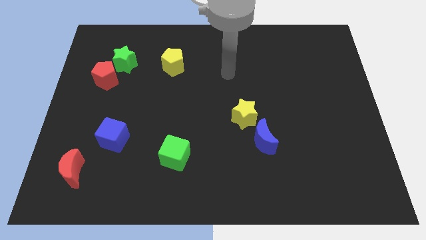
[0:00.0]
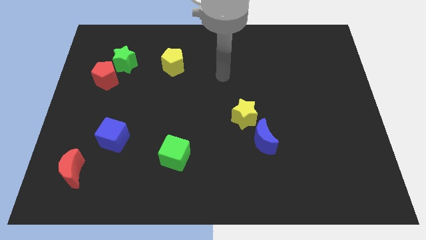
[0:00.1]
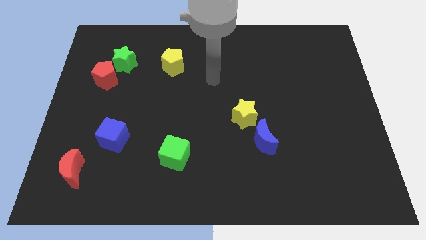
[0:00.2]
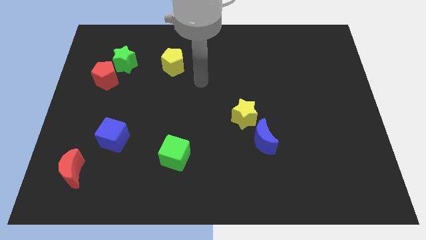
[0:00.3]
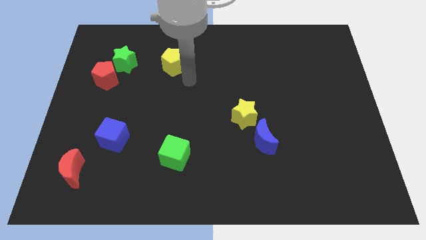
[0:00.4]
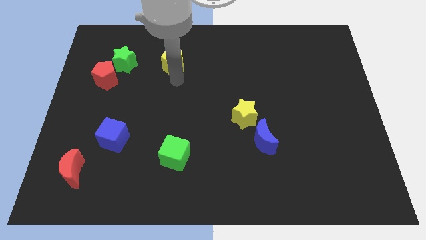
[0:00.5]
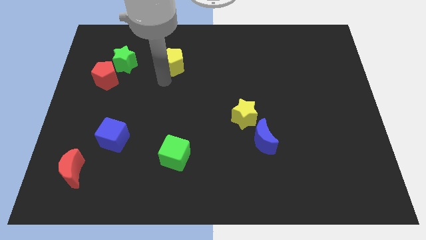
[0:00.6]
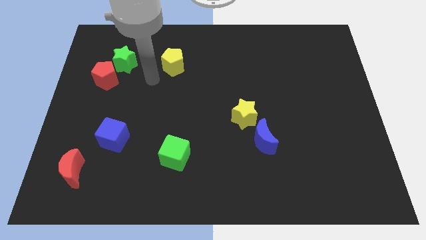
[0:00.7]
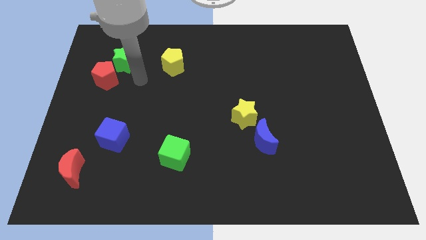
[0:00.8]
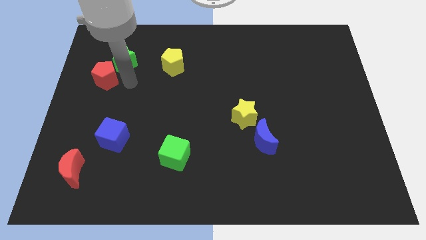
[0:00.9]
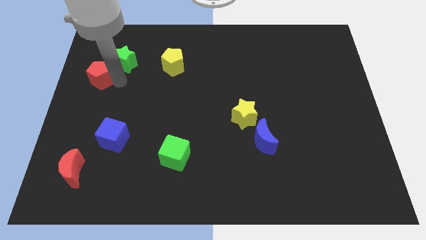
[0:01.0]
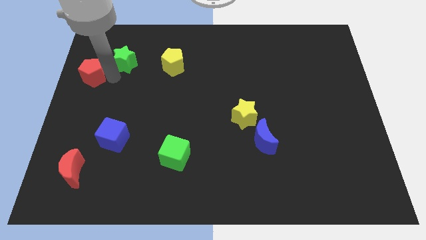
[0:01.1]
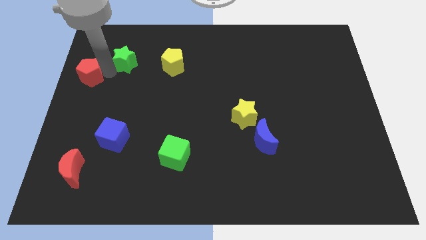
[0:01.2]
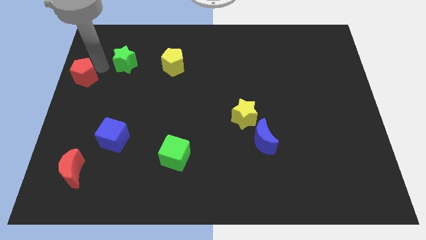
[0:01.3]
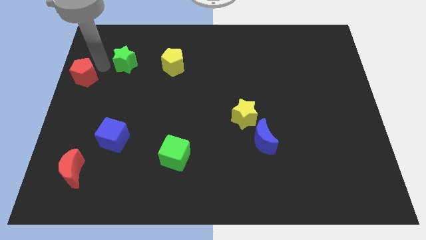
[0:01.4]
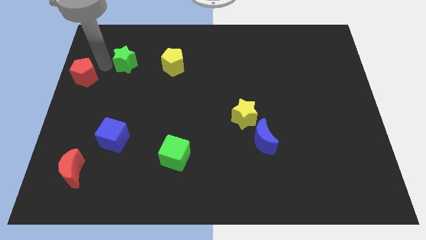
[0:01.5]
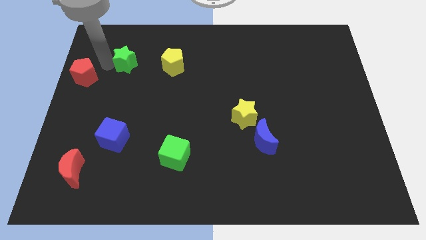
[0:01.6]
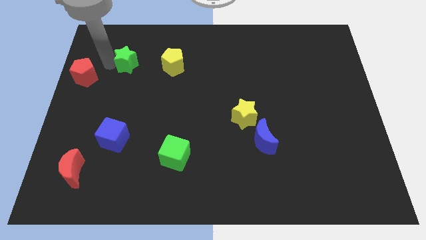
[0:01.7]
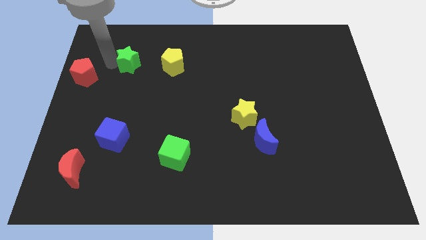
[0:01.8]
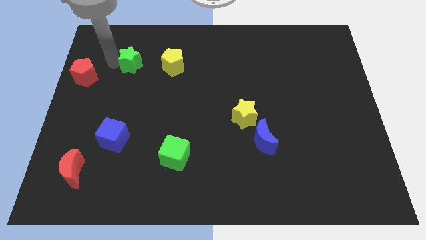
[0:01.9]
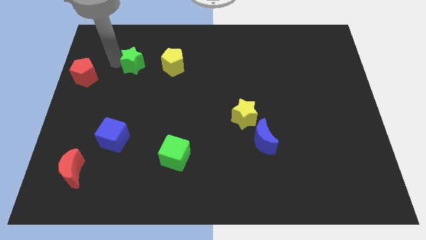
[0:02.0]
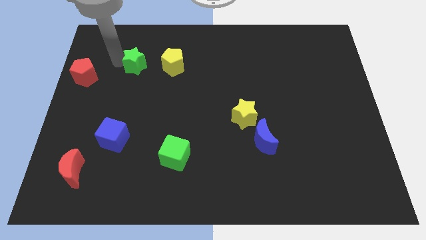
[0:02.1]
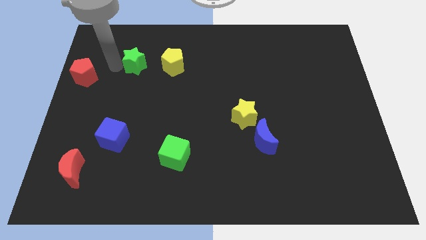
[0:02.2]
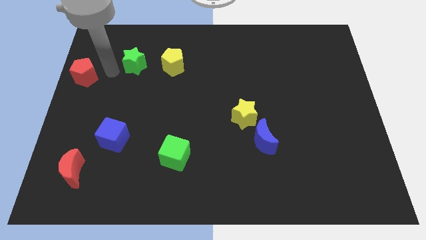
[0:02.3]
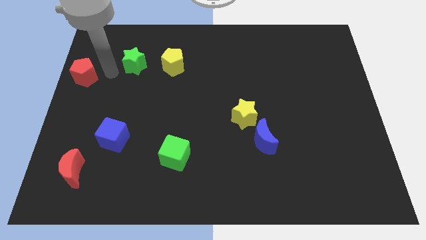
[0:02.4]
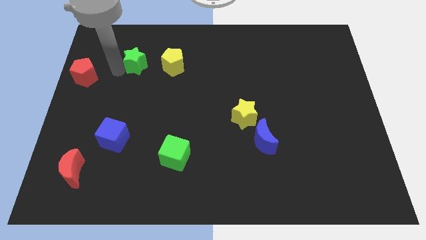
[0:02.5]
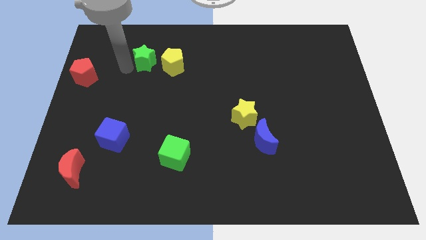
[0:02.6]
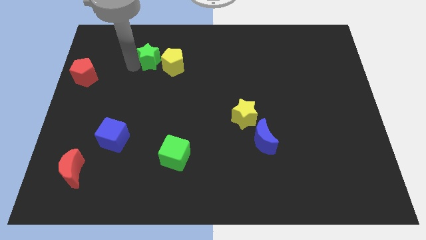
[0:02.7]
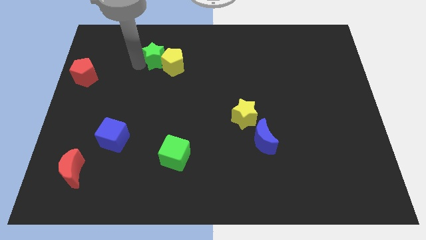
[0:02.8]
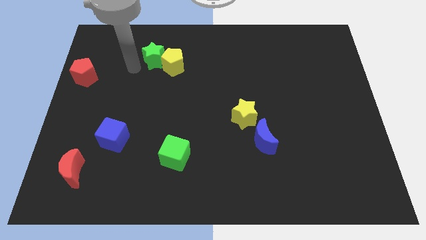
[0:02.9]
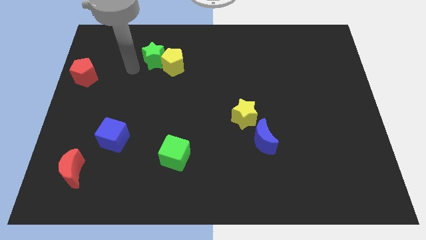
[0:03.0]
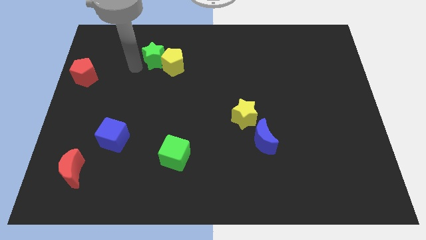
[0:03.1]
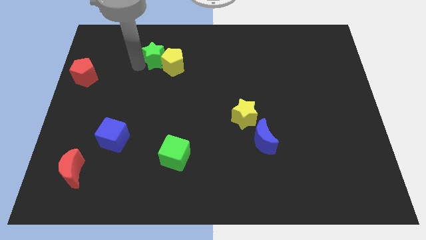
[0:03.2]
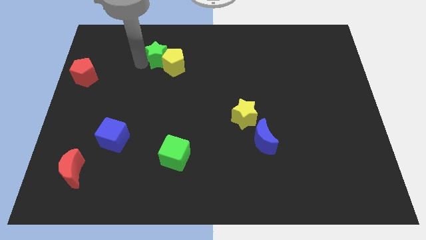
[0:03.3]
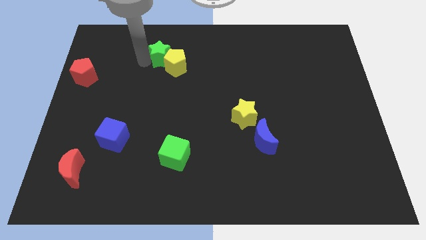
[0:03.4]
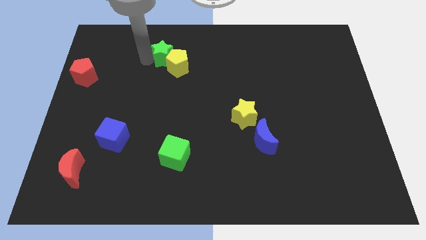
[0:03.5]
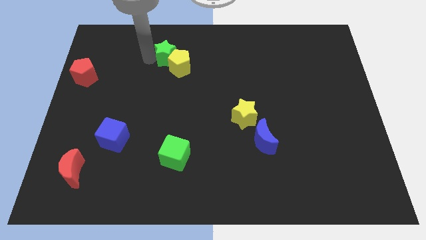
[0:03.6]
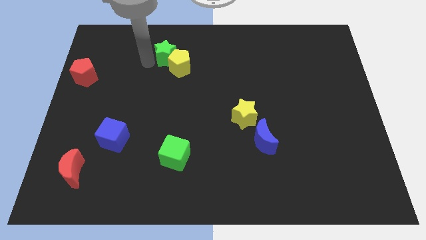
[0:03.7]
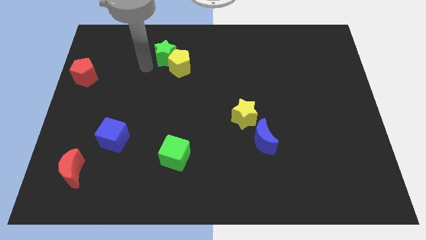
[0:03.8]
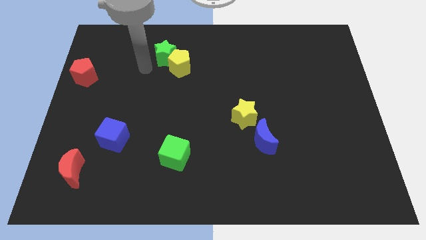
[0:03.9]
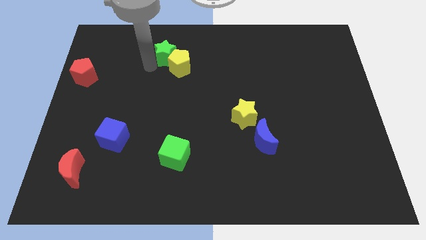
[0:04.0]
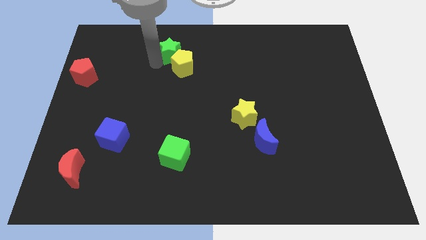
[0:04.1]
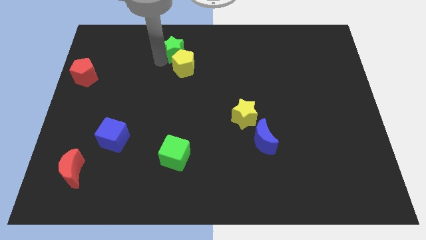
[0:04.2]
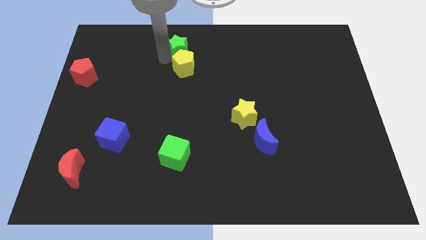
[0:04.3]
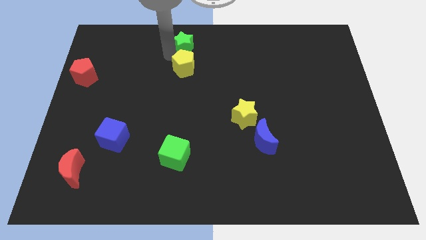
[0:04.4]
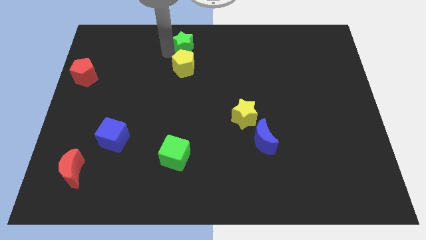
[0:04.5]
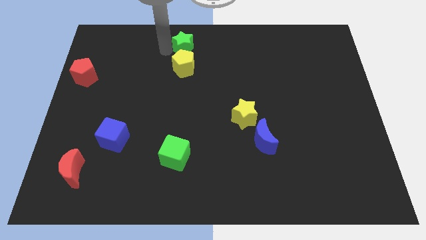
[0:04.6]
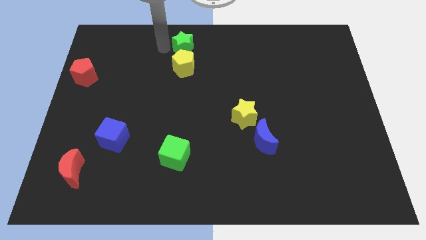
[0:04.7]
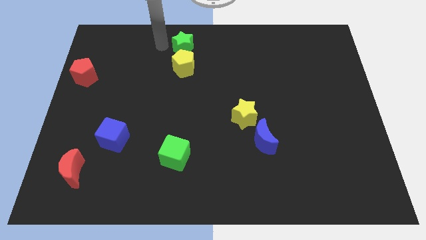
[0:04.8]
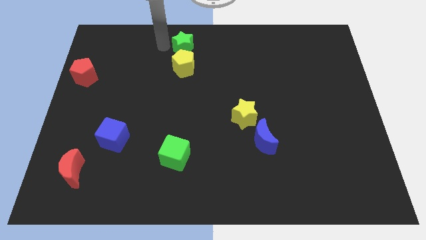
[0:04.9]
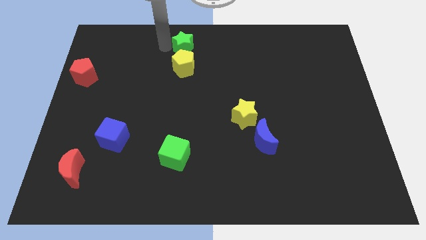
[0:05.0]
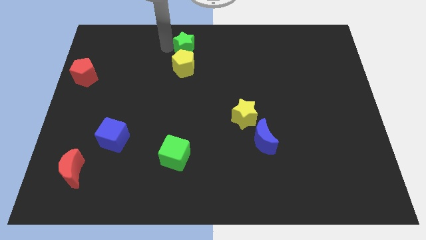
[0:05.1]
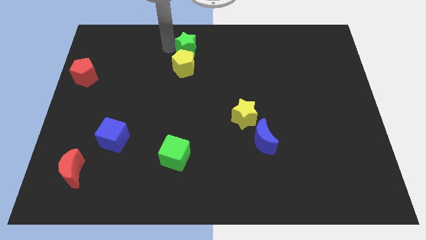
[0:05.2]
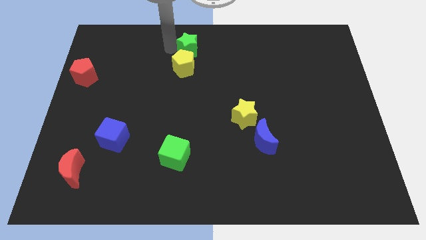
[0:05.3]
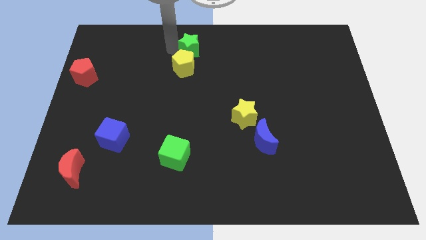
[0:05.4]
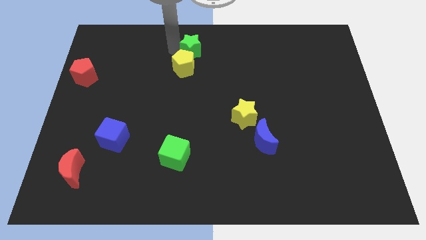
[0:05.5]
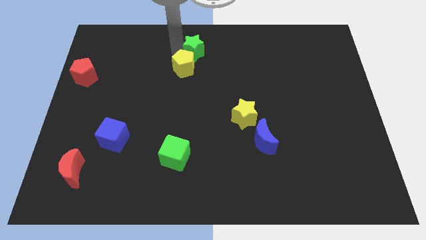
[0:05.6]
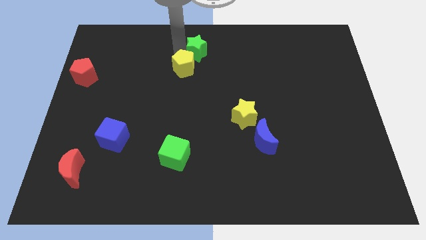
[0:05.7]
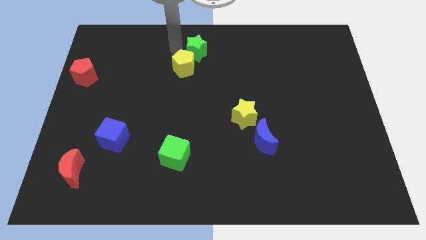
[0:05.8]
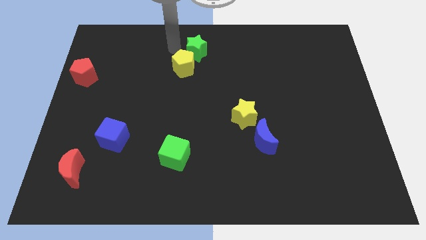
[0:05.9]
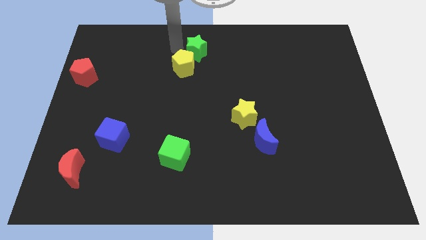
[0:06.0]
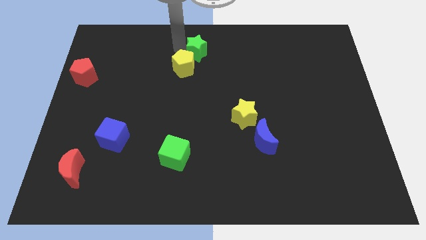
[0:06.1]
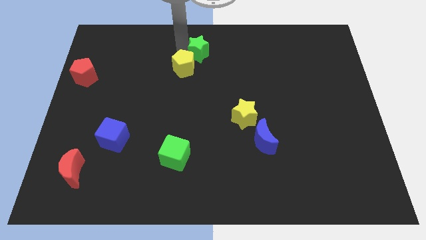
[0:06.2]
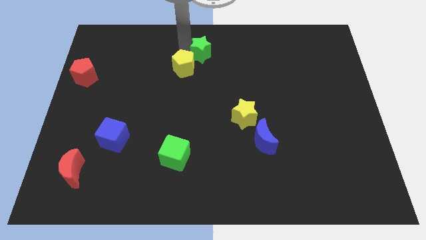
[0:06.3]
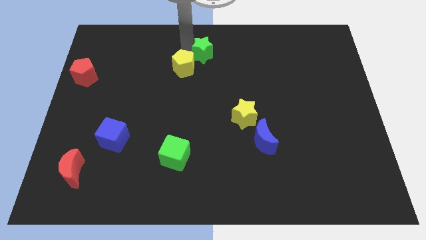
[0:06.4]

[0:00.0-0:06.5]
push the green star to the right

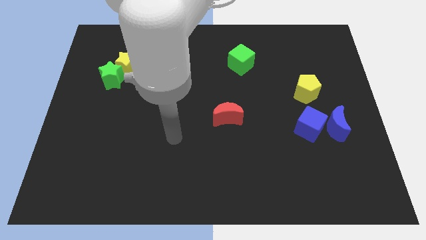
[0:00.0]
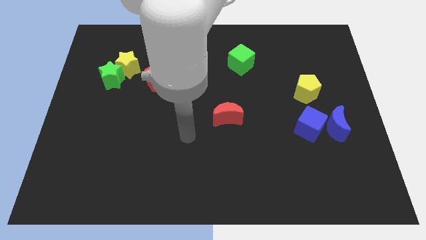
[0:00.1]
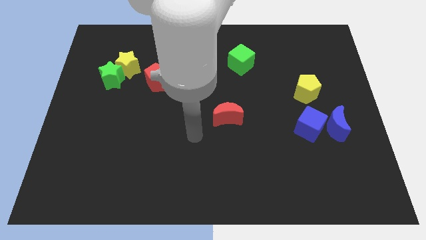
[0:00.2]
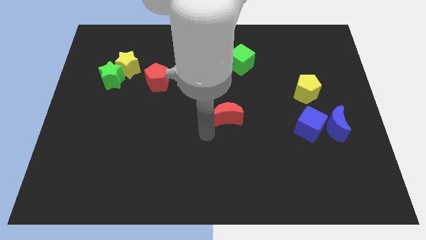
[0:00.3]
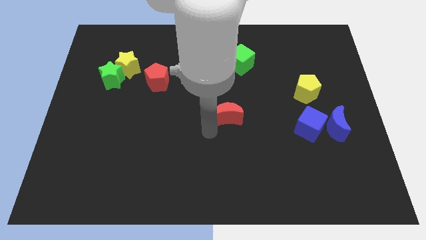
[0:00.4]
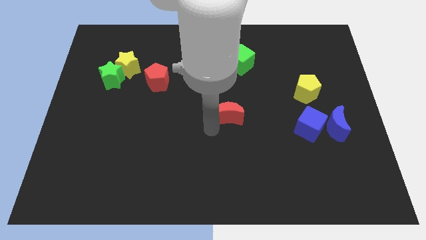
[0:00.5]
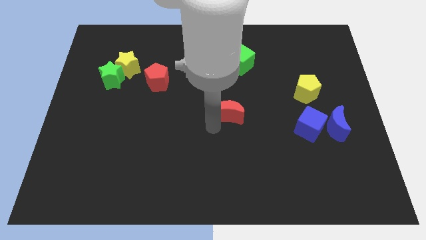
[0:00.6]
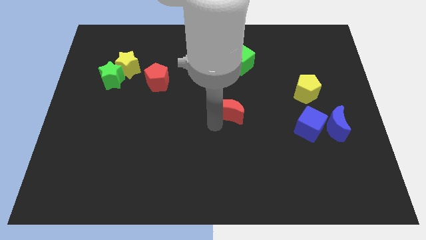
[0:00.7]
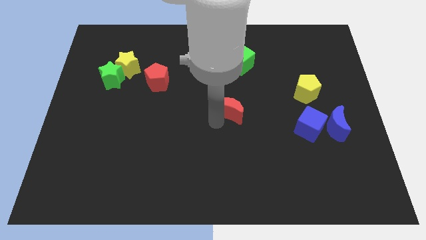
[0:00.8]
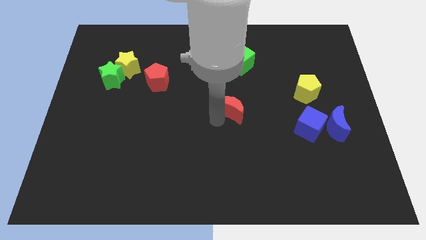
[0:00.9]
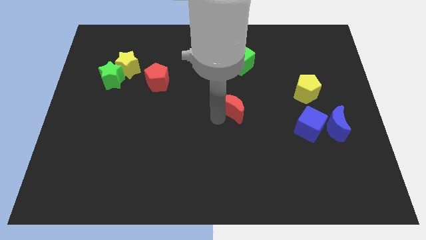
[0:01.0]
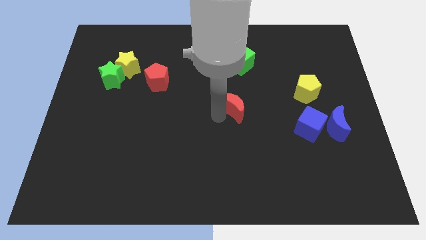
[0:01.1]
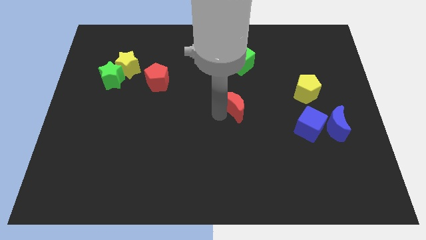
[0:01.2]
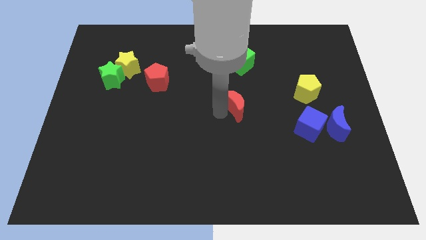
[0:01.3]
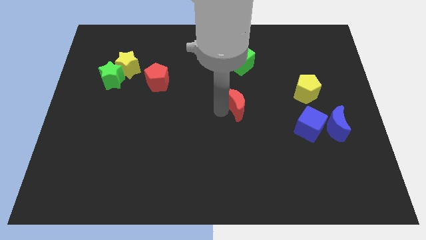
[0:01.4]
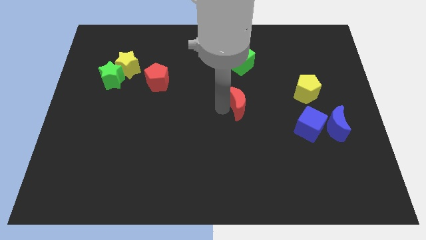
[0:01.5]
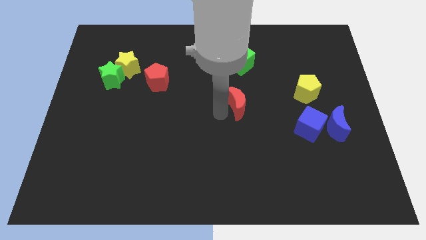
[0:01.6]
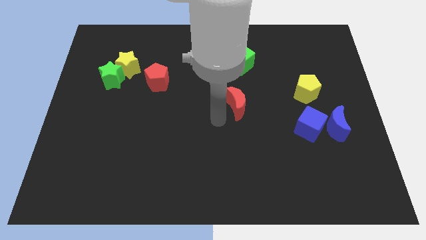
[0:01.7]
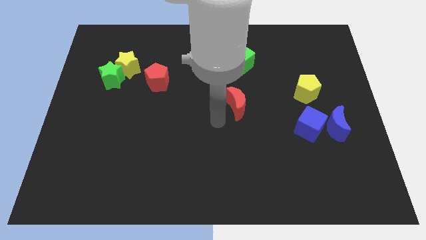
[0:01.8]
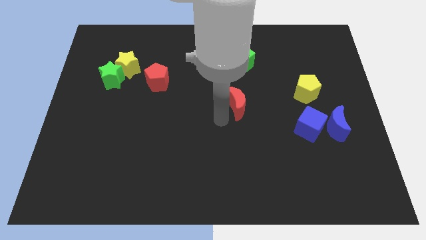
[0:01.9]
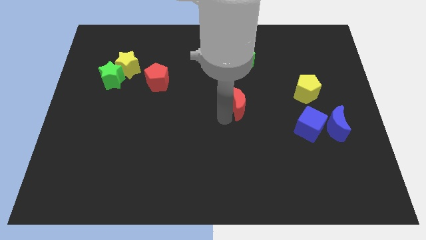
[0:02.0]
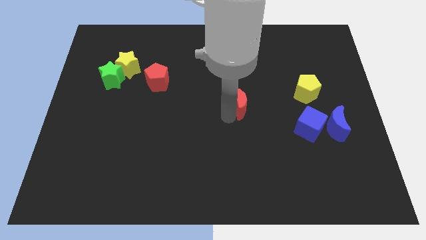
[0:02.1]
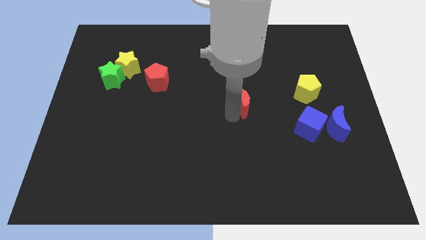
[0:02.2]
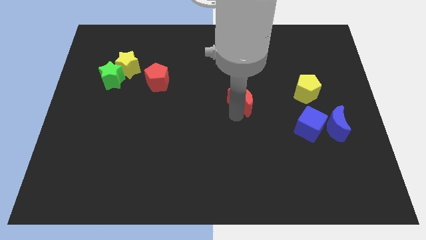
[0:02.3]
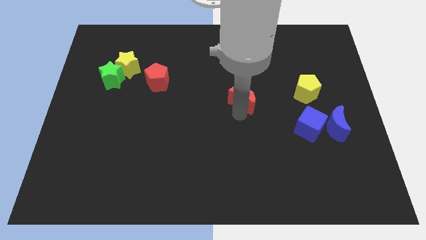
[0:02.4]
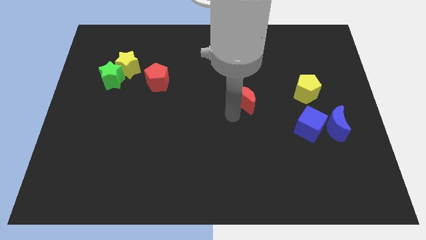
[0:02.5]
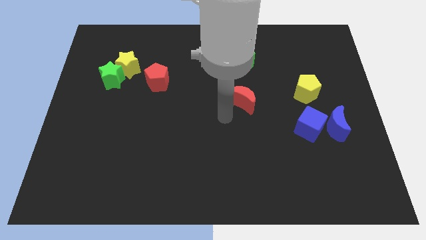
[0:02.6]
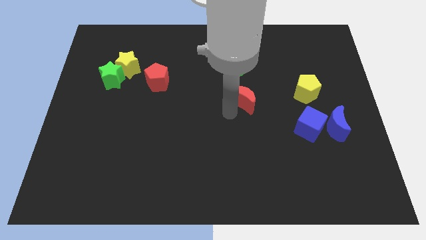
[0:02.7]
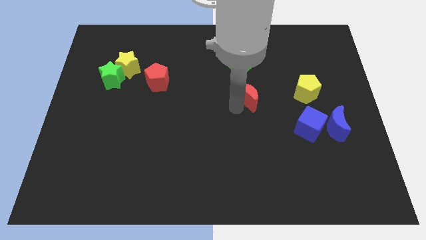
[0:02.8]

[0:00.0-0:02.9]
move the red moon upwards and to the right diagonally a bit
